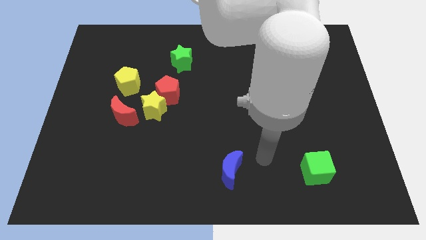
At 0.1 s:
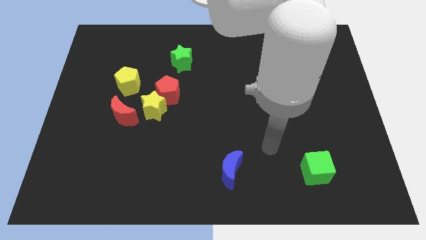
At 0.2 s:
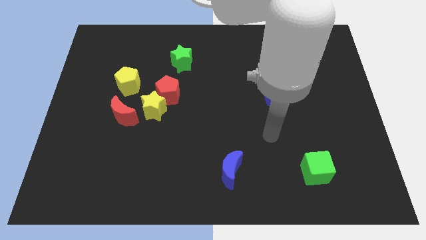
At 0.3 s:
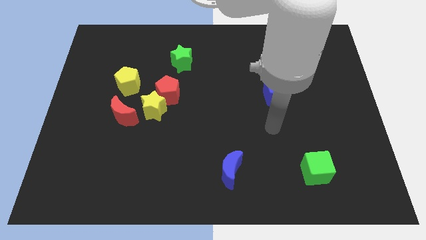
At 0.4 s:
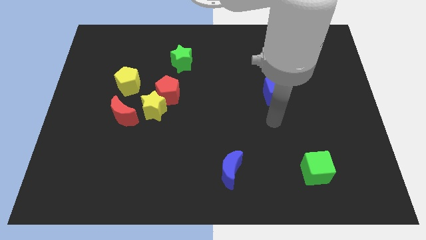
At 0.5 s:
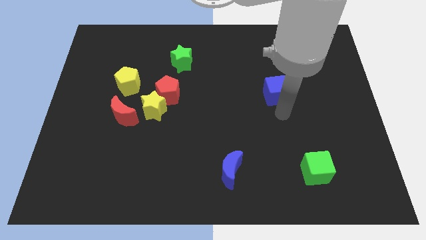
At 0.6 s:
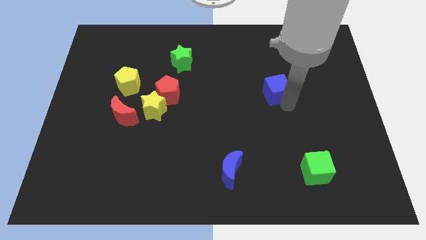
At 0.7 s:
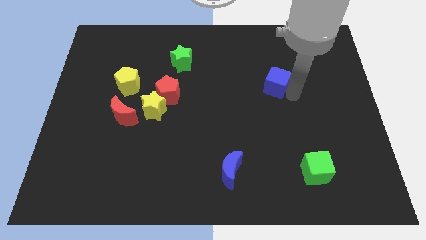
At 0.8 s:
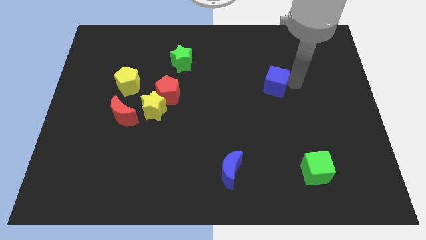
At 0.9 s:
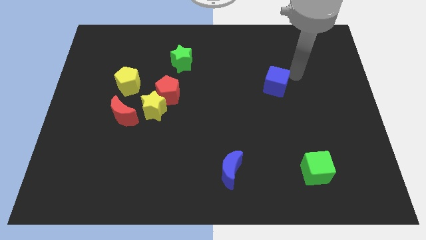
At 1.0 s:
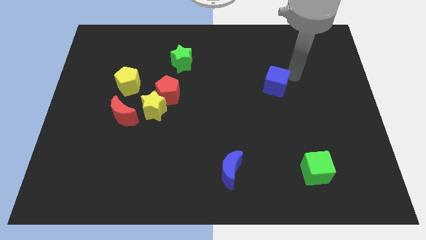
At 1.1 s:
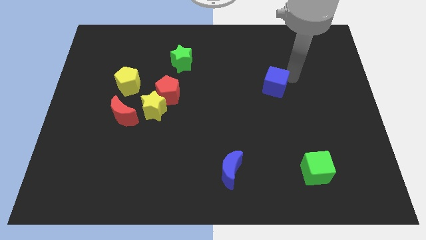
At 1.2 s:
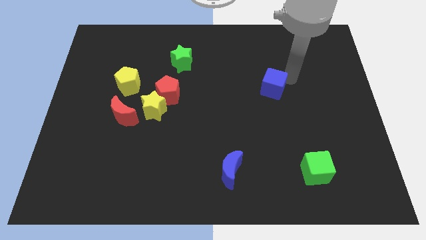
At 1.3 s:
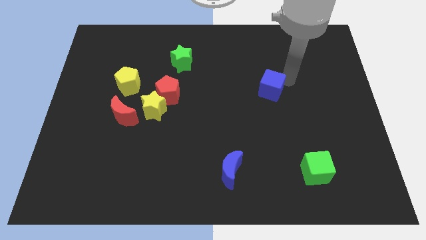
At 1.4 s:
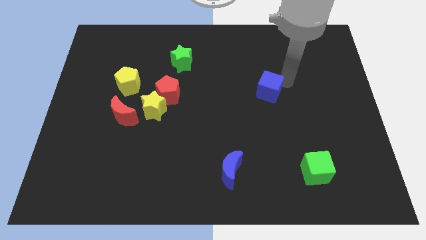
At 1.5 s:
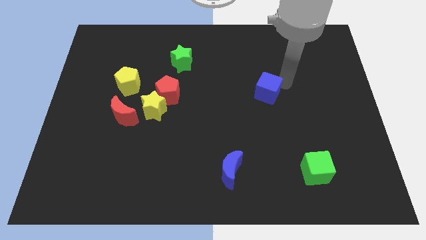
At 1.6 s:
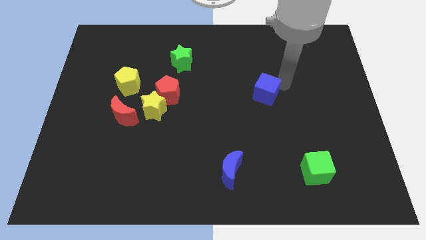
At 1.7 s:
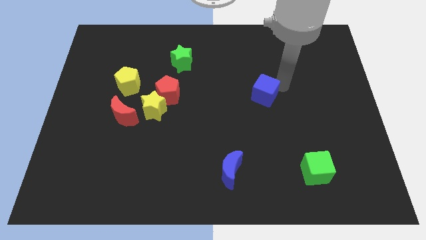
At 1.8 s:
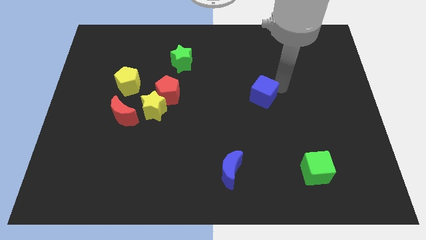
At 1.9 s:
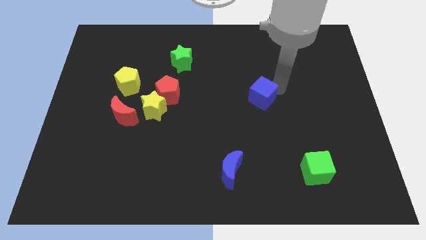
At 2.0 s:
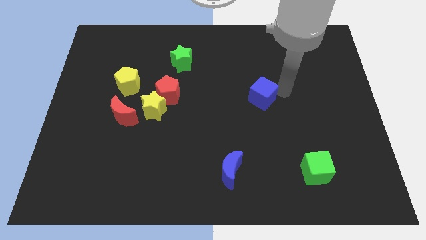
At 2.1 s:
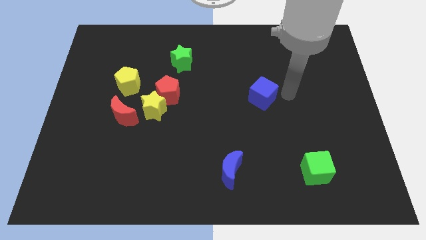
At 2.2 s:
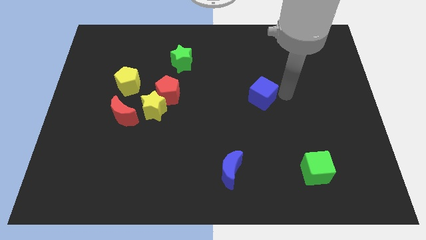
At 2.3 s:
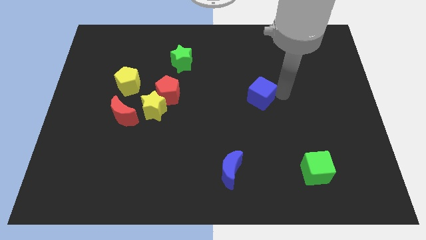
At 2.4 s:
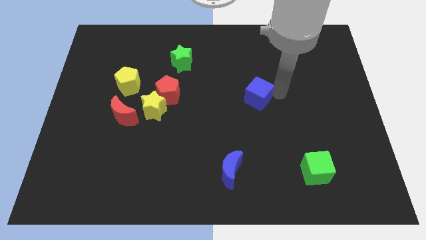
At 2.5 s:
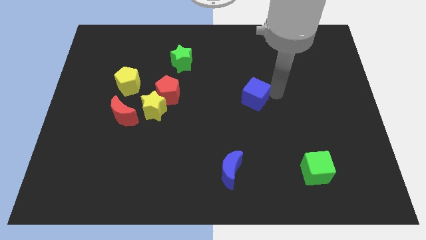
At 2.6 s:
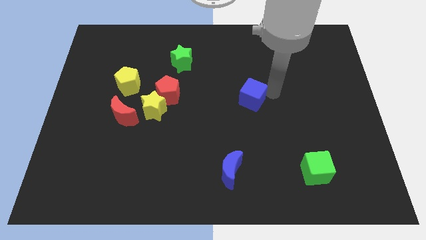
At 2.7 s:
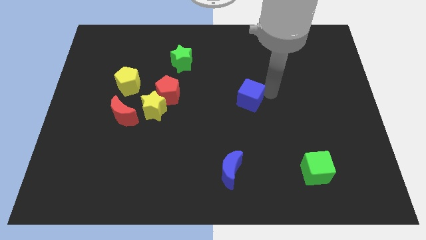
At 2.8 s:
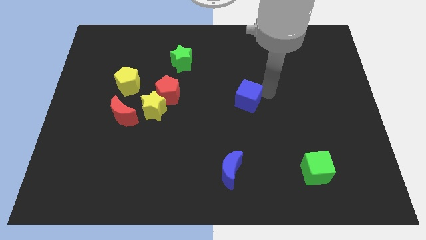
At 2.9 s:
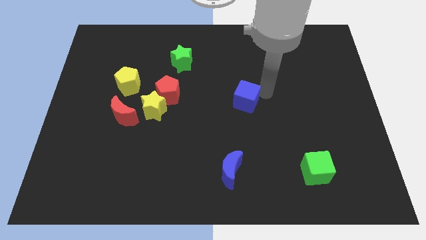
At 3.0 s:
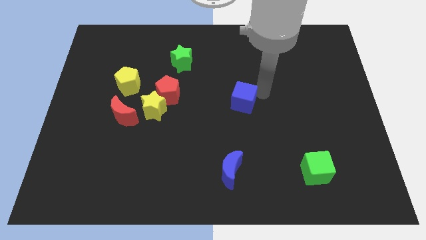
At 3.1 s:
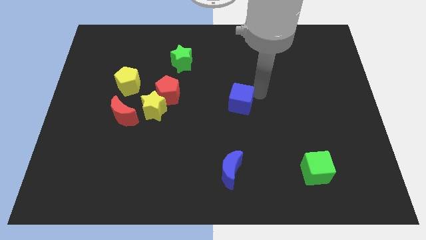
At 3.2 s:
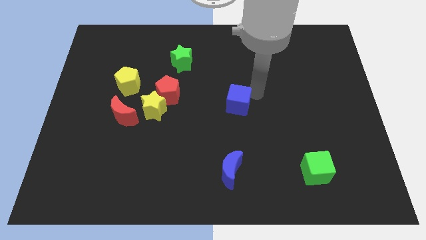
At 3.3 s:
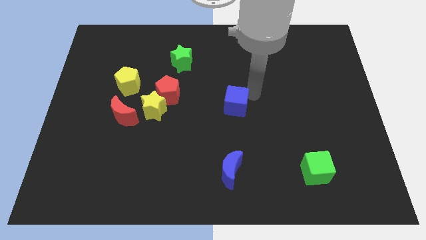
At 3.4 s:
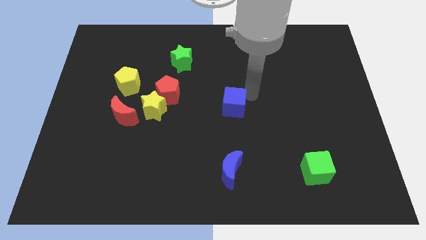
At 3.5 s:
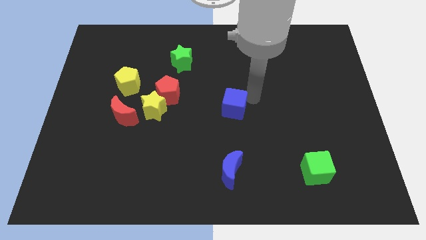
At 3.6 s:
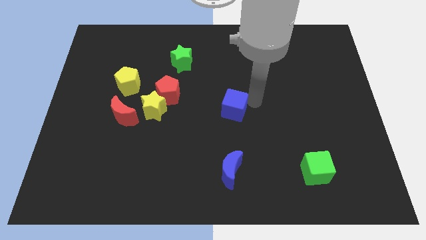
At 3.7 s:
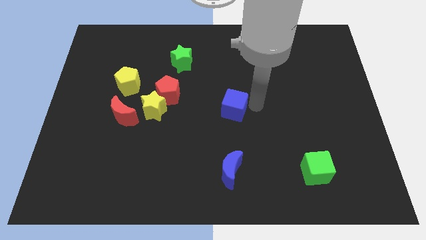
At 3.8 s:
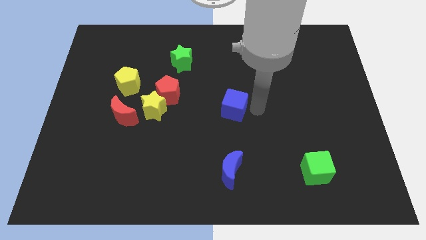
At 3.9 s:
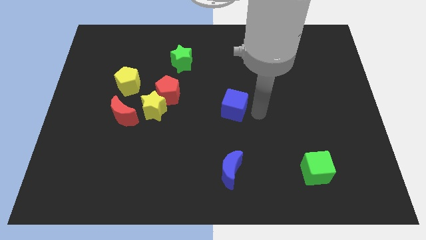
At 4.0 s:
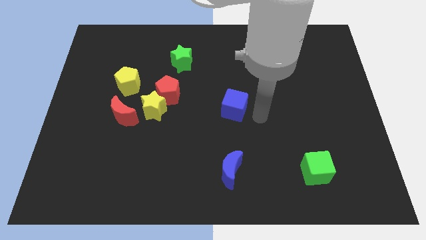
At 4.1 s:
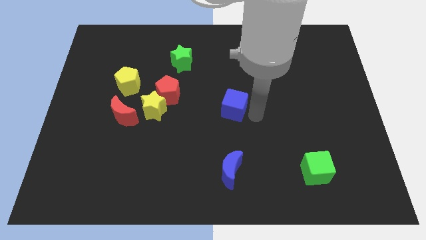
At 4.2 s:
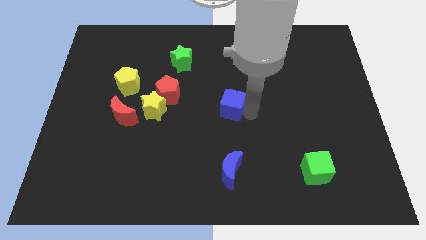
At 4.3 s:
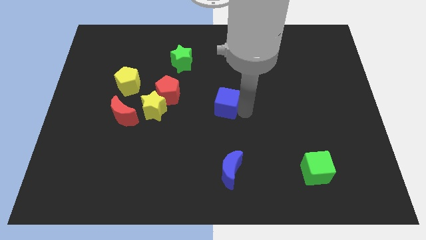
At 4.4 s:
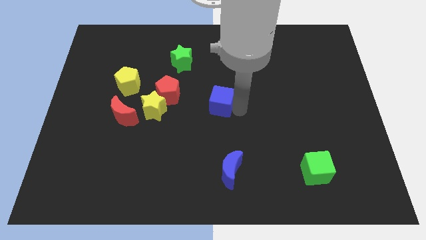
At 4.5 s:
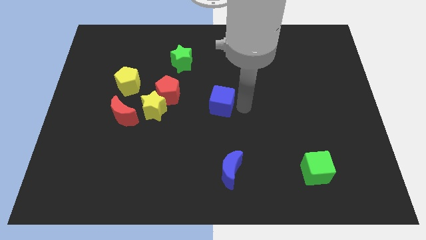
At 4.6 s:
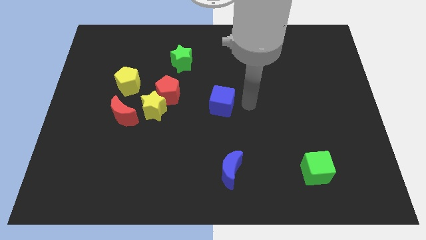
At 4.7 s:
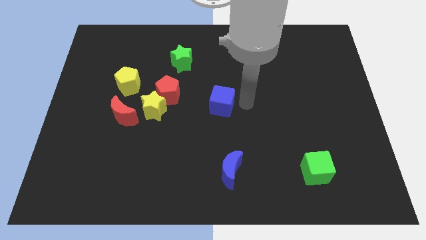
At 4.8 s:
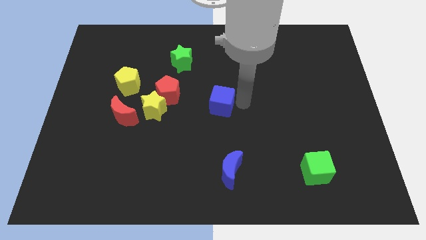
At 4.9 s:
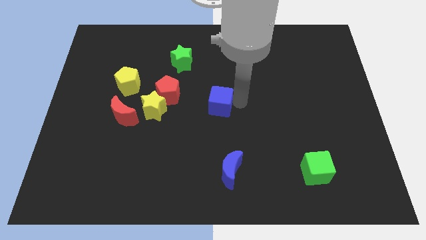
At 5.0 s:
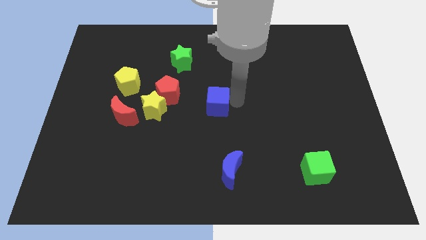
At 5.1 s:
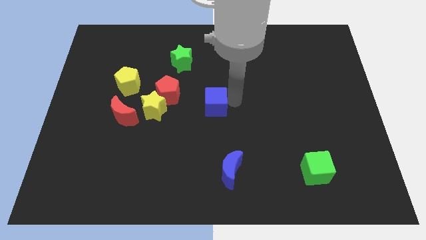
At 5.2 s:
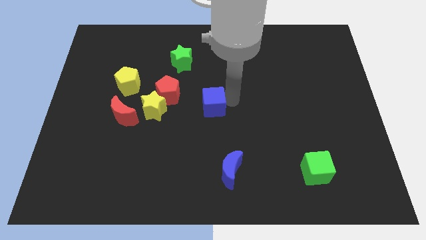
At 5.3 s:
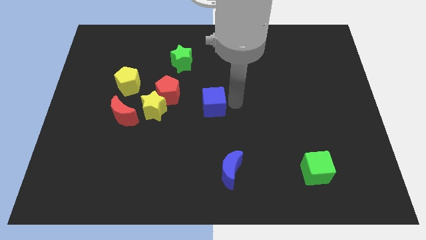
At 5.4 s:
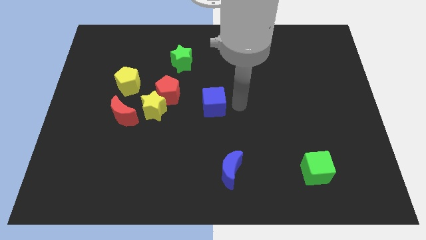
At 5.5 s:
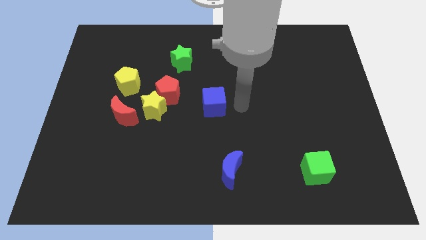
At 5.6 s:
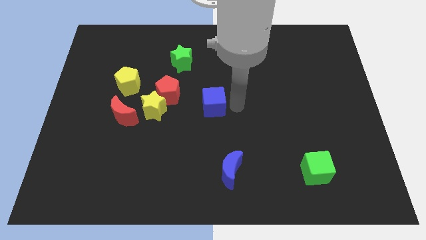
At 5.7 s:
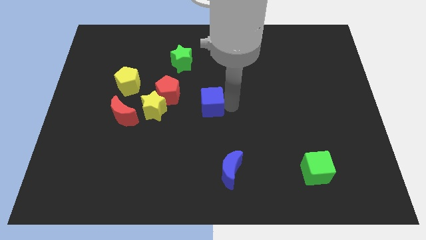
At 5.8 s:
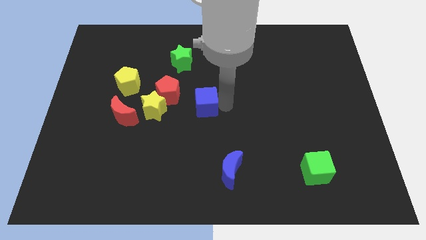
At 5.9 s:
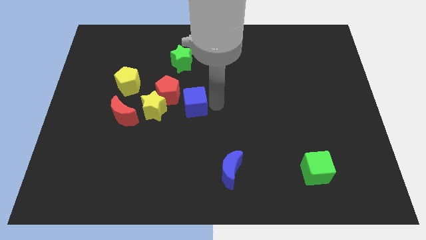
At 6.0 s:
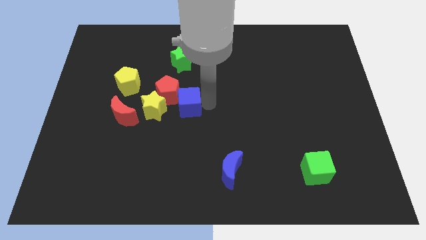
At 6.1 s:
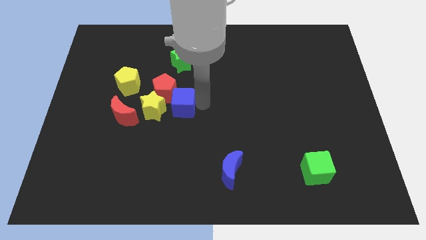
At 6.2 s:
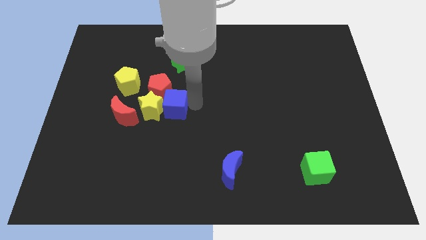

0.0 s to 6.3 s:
push the blue cube next to the yellow star

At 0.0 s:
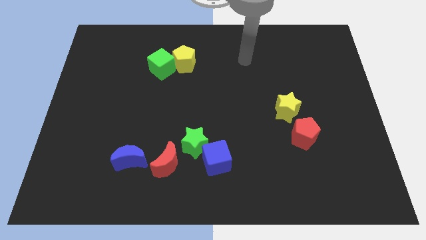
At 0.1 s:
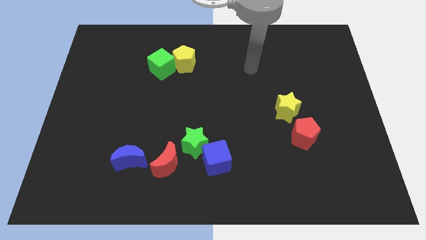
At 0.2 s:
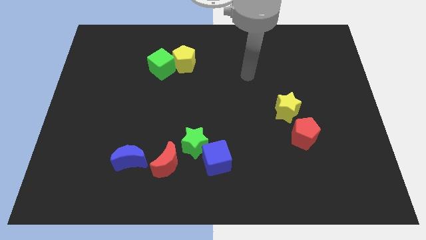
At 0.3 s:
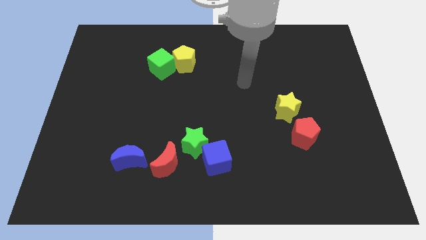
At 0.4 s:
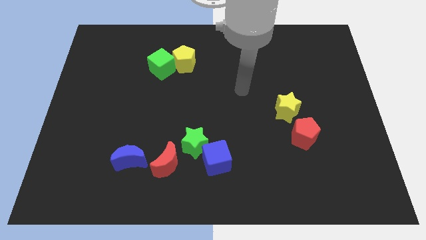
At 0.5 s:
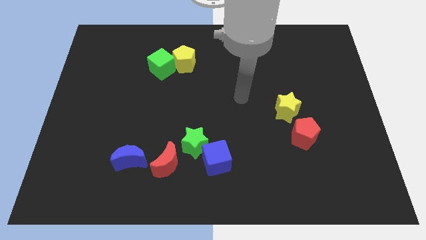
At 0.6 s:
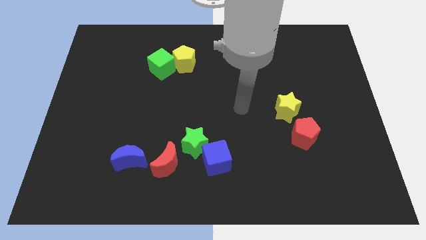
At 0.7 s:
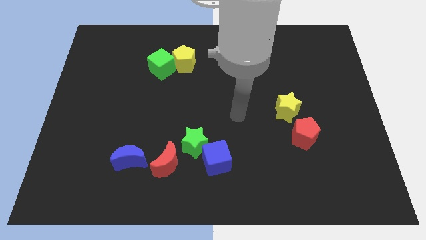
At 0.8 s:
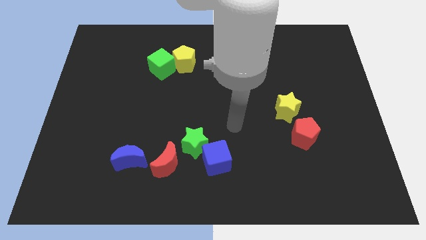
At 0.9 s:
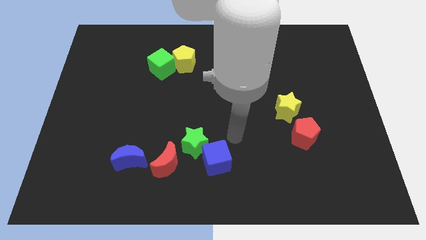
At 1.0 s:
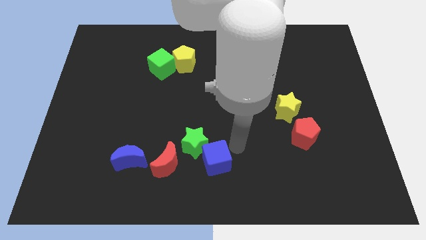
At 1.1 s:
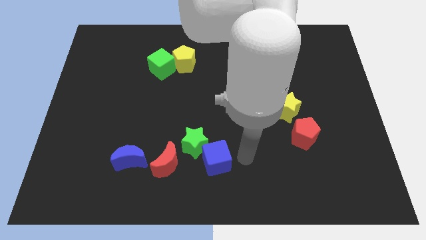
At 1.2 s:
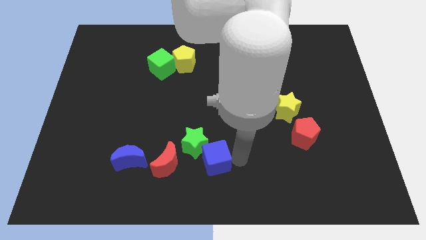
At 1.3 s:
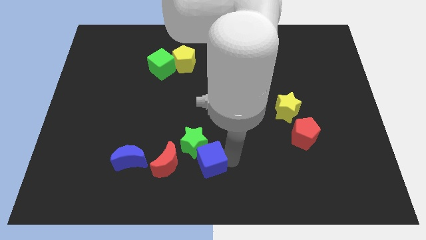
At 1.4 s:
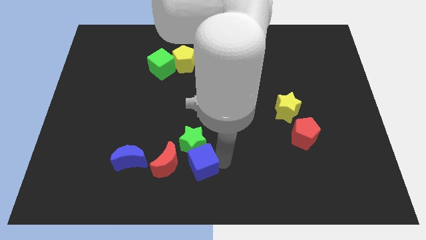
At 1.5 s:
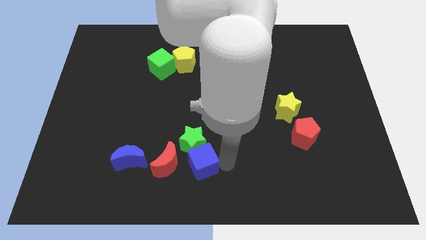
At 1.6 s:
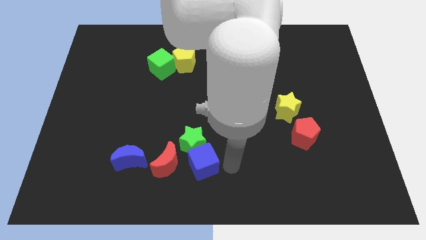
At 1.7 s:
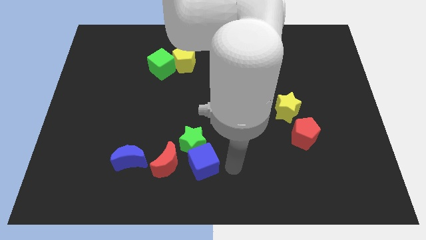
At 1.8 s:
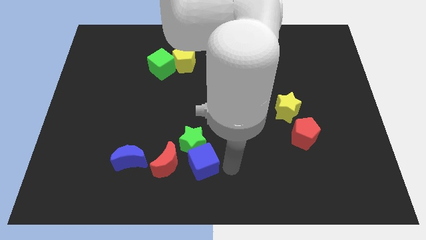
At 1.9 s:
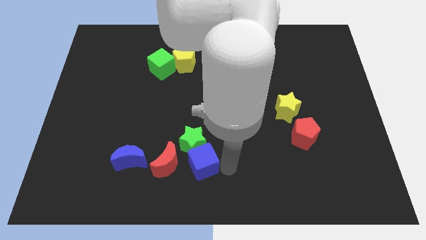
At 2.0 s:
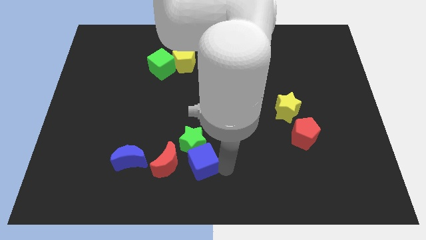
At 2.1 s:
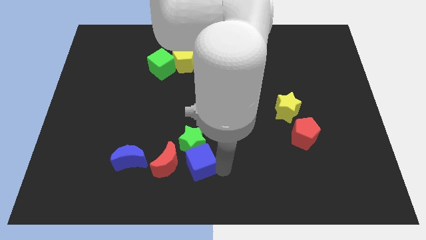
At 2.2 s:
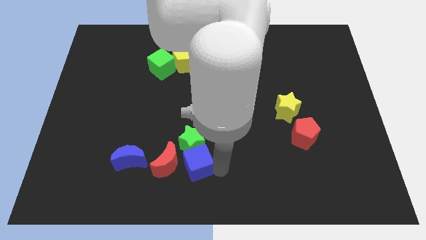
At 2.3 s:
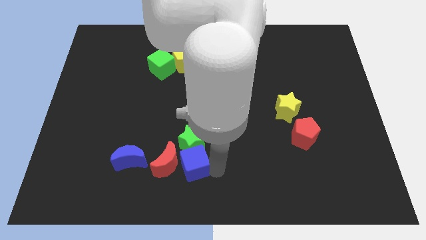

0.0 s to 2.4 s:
move the blue cube next to the red moon
